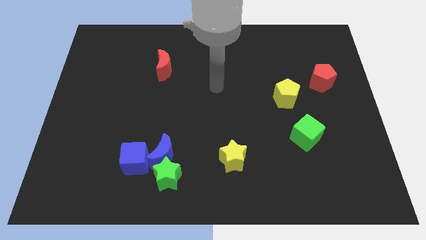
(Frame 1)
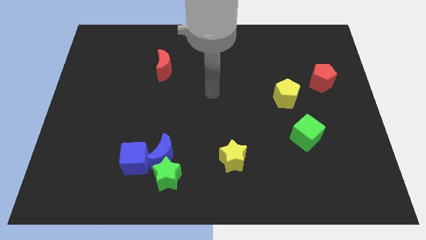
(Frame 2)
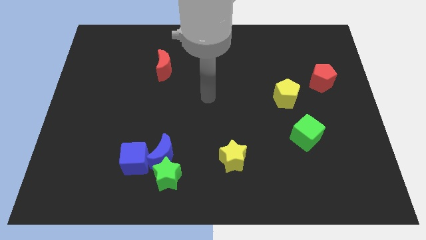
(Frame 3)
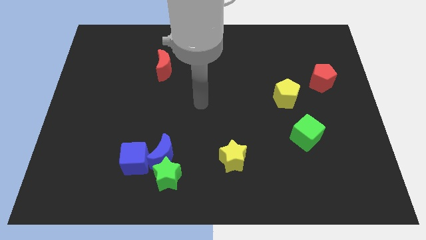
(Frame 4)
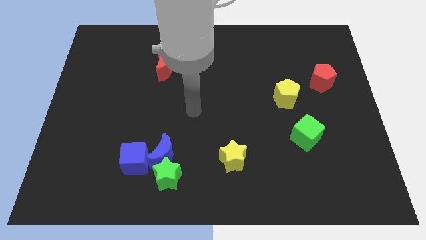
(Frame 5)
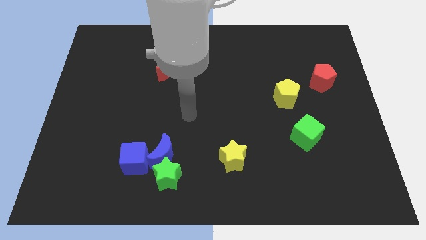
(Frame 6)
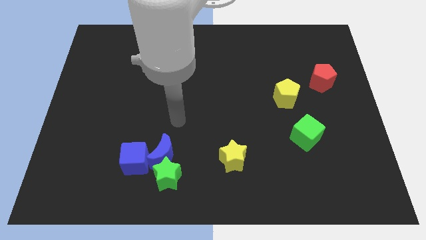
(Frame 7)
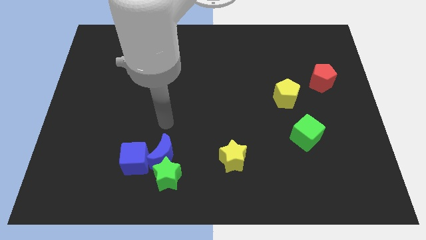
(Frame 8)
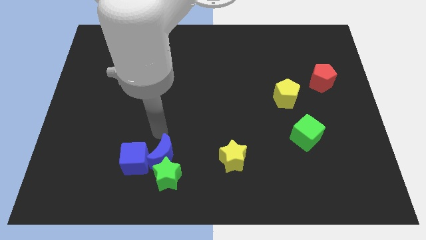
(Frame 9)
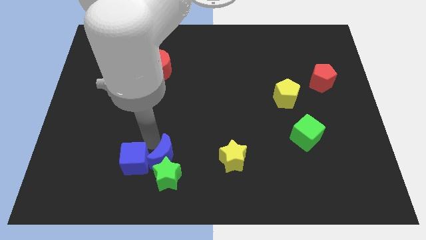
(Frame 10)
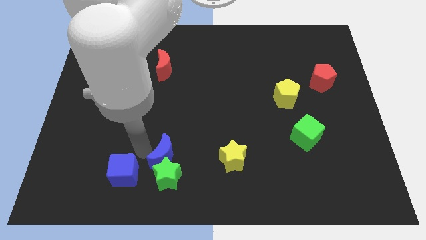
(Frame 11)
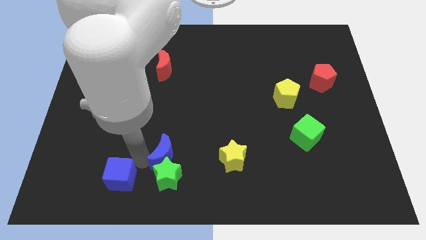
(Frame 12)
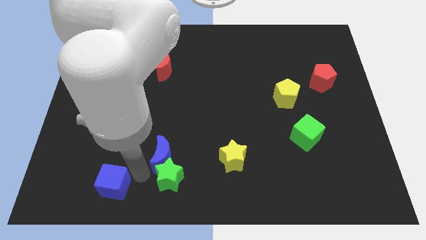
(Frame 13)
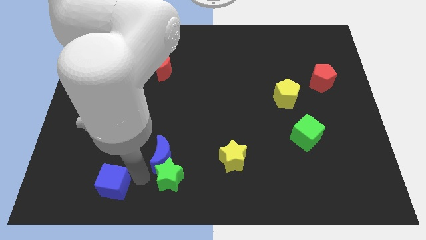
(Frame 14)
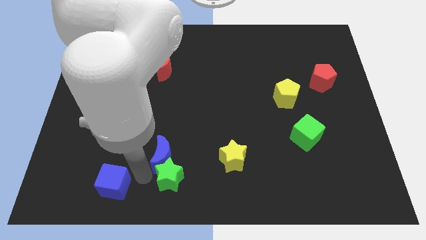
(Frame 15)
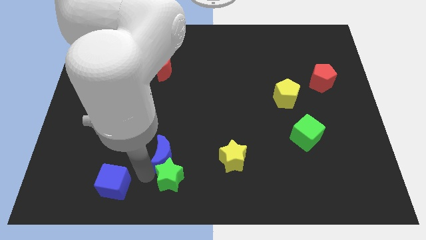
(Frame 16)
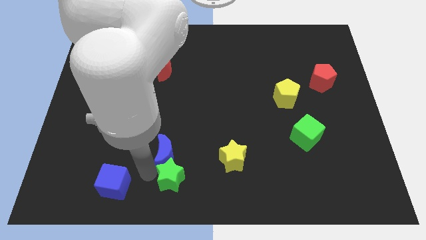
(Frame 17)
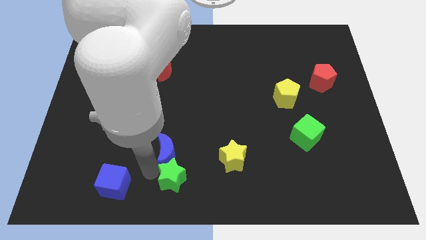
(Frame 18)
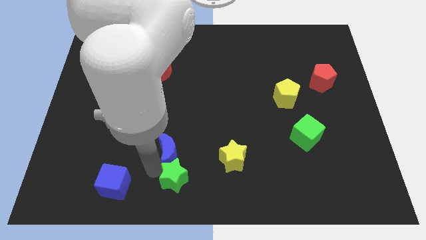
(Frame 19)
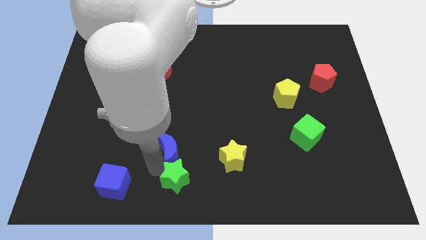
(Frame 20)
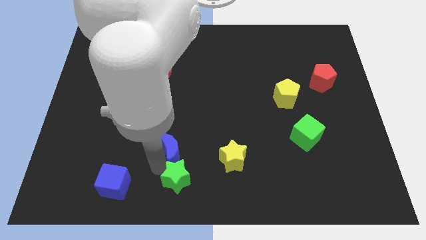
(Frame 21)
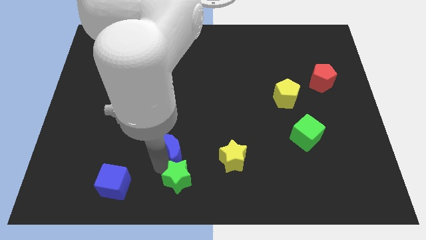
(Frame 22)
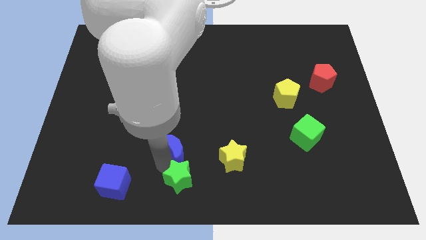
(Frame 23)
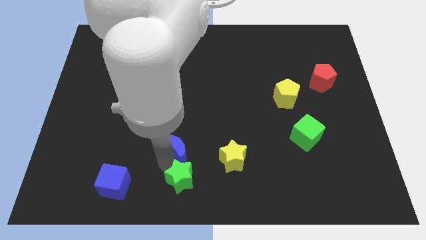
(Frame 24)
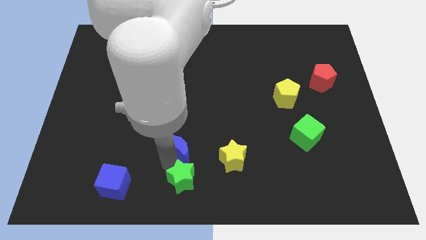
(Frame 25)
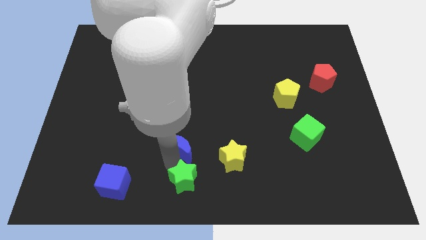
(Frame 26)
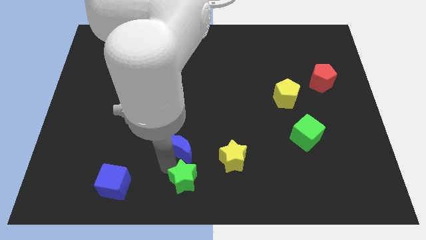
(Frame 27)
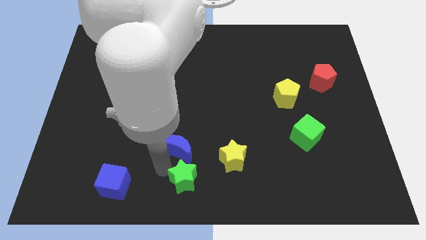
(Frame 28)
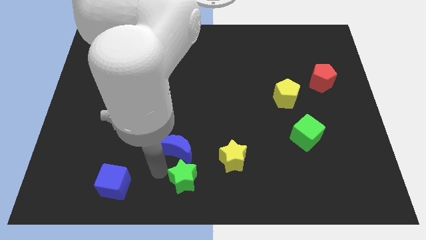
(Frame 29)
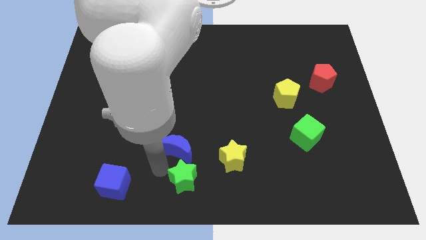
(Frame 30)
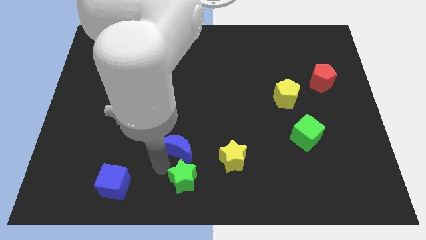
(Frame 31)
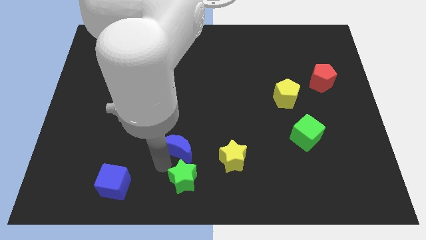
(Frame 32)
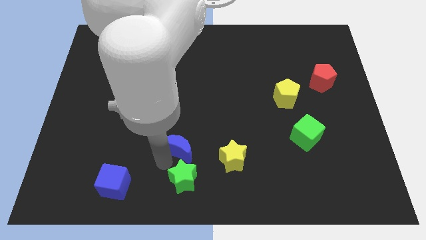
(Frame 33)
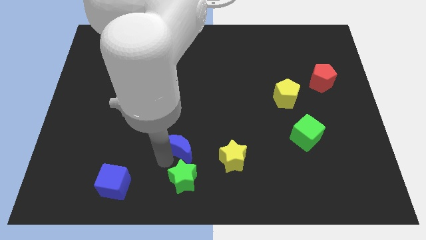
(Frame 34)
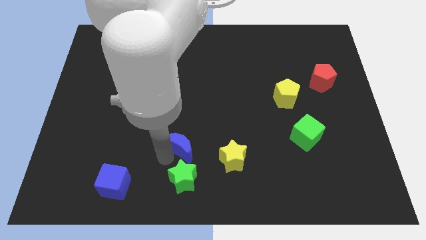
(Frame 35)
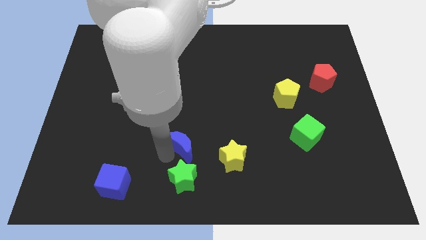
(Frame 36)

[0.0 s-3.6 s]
pull the blue moon apart from the green star and blue cube

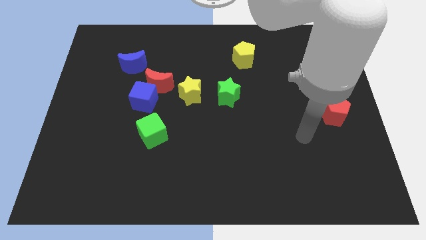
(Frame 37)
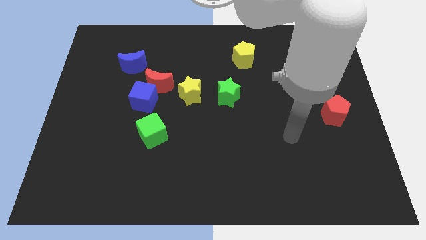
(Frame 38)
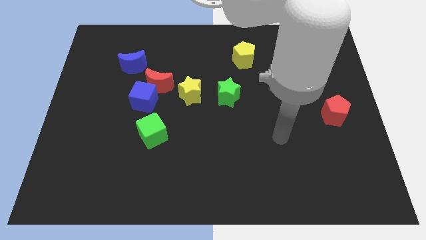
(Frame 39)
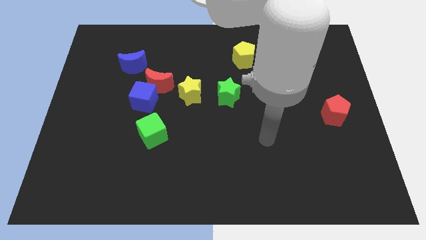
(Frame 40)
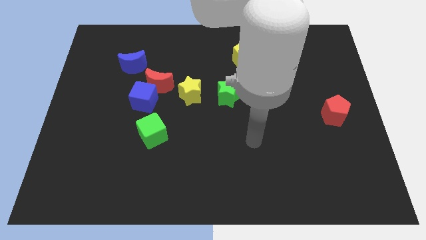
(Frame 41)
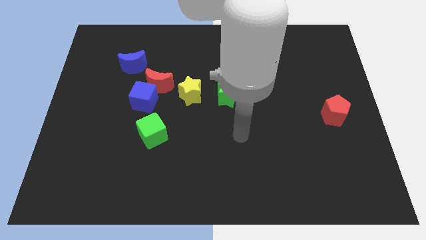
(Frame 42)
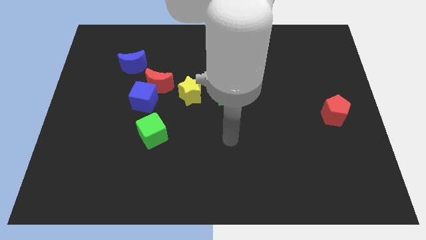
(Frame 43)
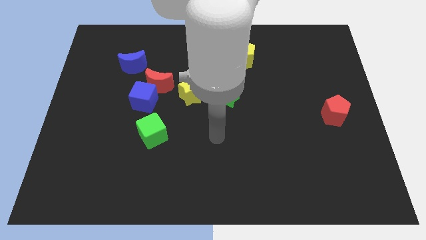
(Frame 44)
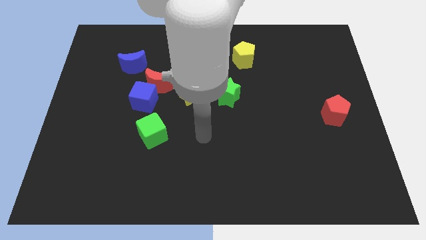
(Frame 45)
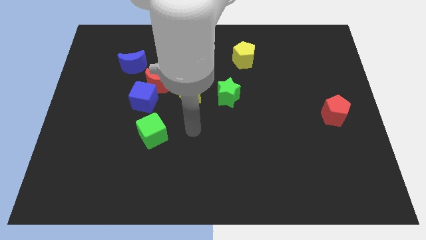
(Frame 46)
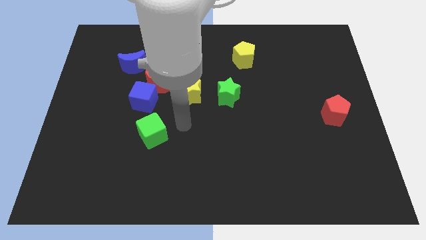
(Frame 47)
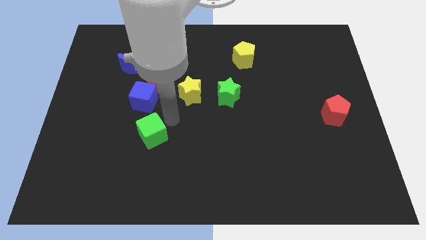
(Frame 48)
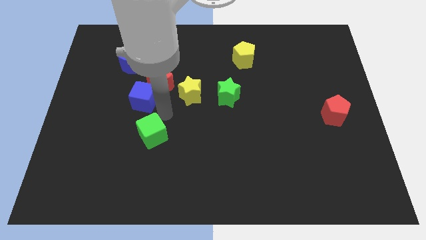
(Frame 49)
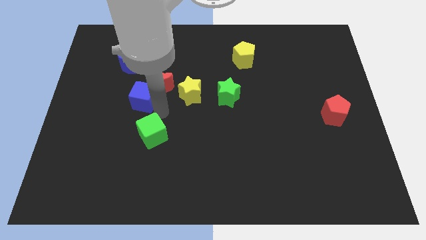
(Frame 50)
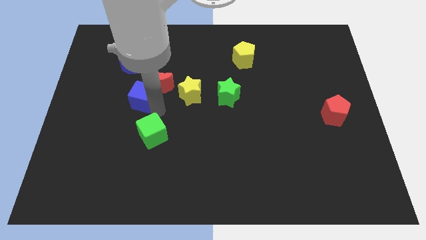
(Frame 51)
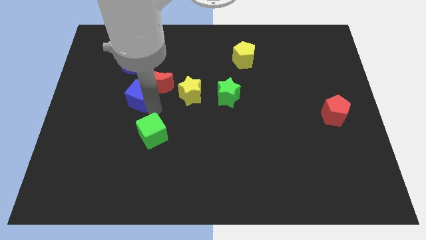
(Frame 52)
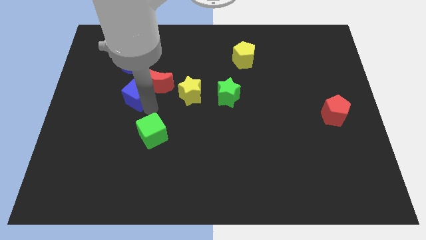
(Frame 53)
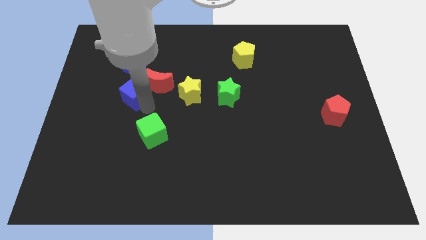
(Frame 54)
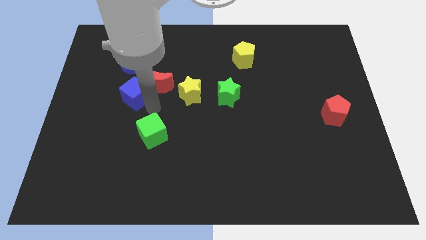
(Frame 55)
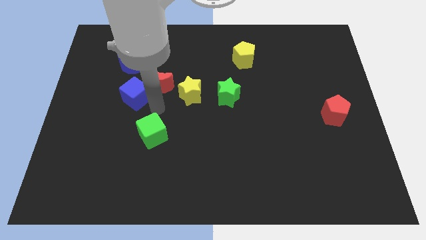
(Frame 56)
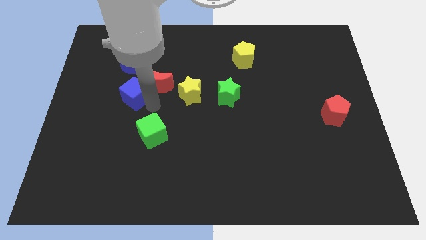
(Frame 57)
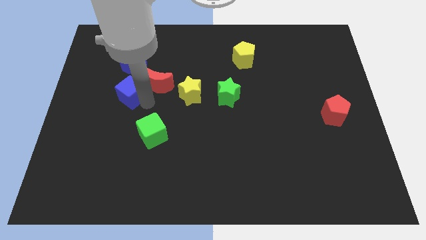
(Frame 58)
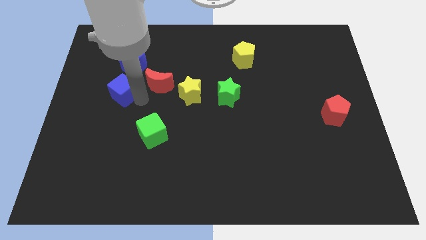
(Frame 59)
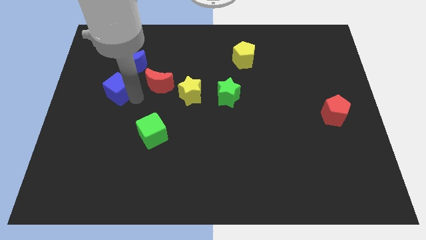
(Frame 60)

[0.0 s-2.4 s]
pull the blue cube apart from the red moon and green cube

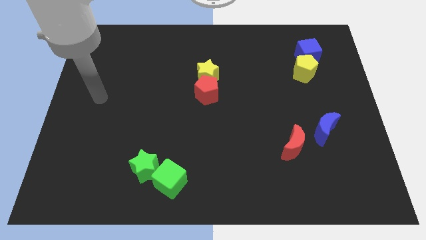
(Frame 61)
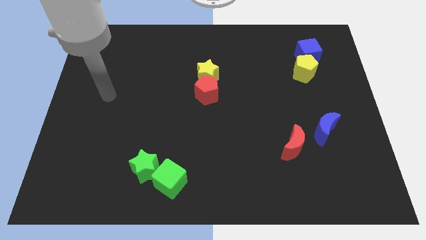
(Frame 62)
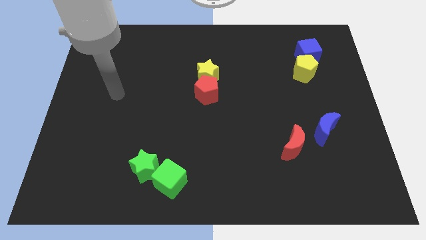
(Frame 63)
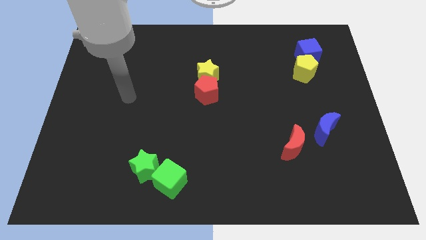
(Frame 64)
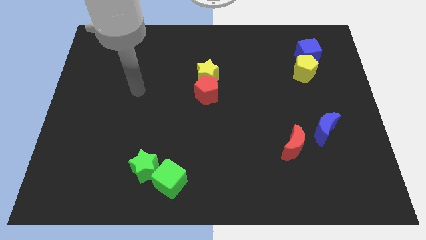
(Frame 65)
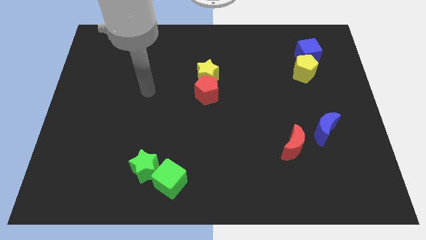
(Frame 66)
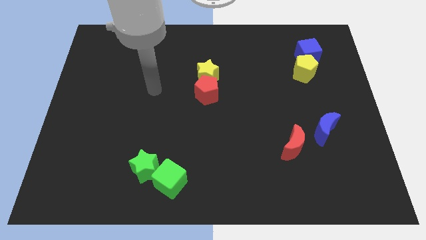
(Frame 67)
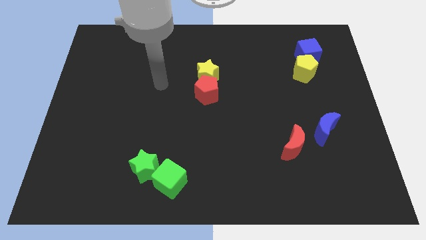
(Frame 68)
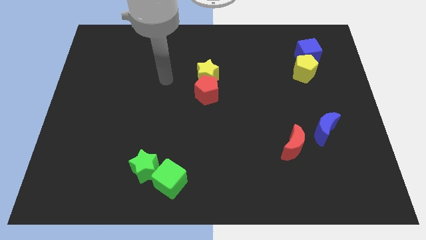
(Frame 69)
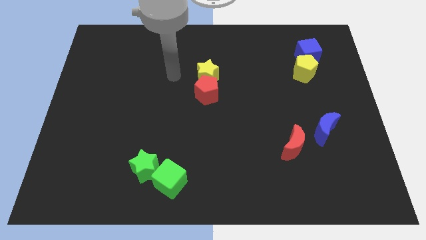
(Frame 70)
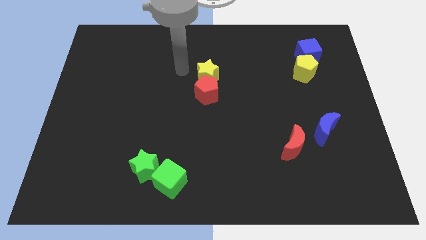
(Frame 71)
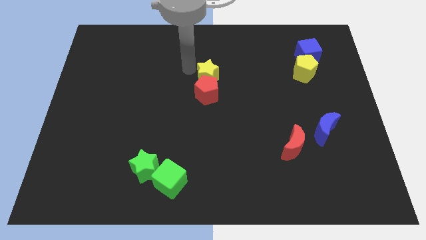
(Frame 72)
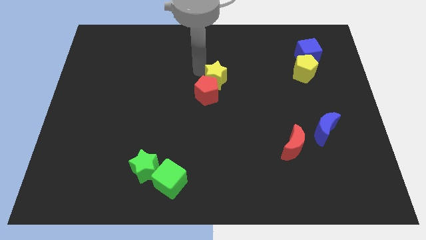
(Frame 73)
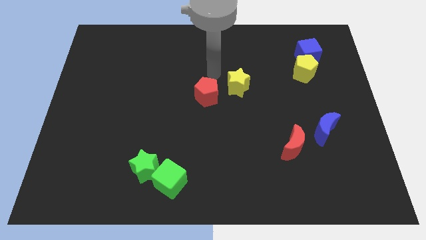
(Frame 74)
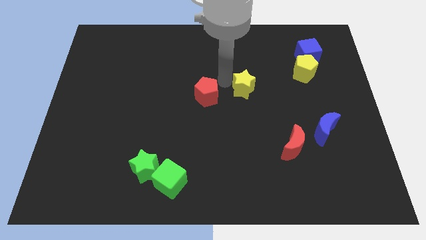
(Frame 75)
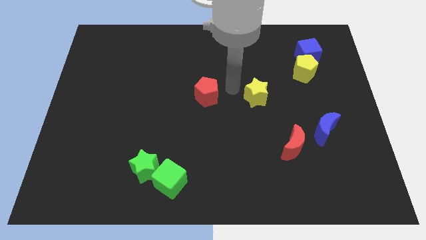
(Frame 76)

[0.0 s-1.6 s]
pull the red pentagon apart from the yellow star

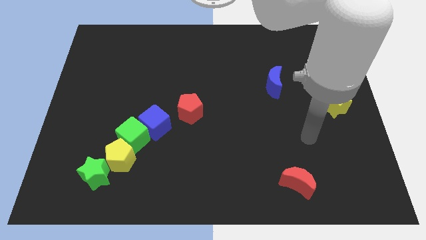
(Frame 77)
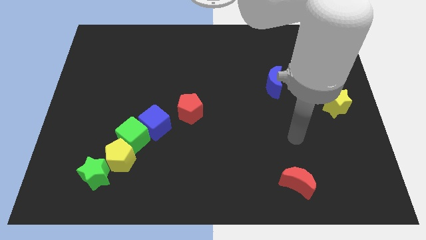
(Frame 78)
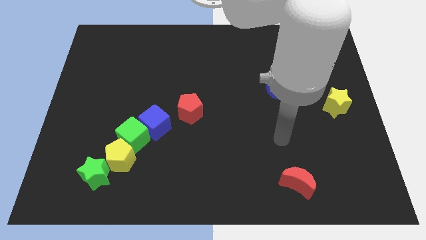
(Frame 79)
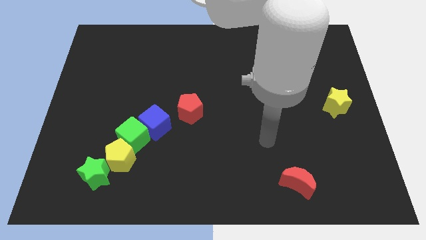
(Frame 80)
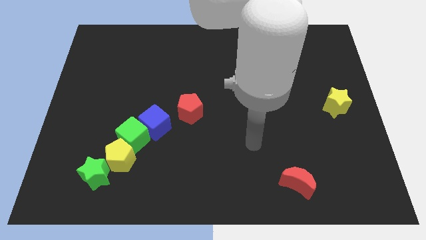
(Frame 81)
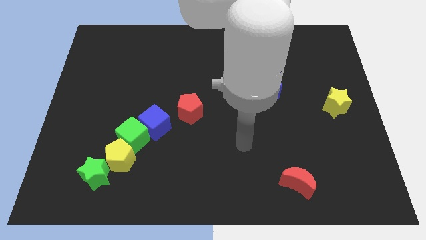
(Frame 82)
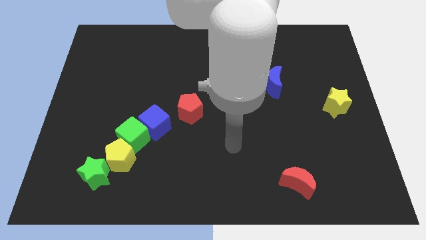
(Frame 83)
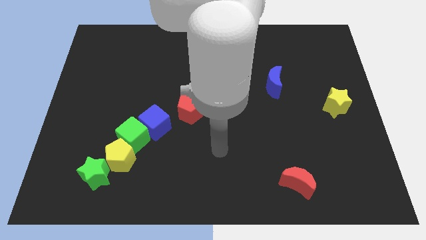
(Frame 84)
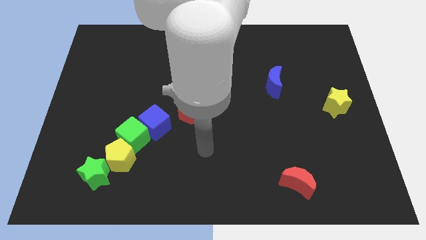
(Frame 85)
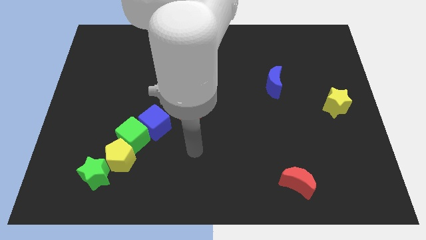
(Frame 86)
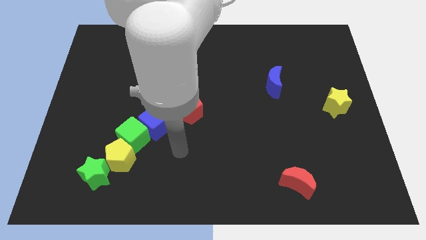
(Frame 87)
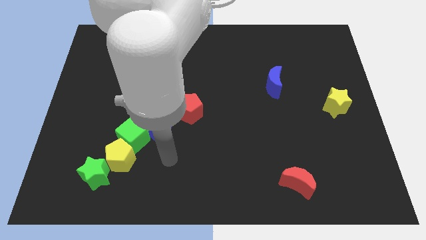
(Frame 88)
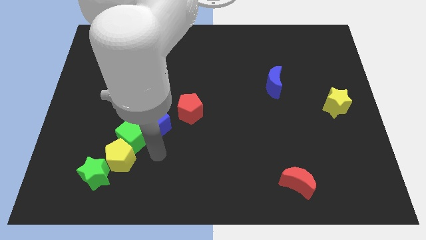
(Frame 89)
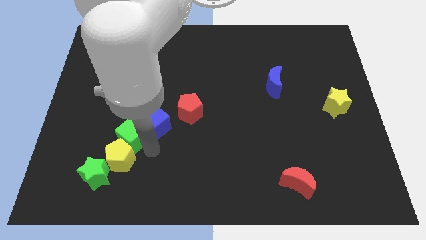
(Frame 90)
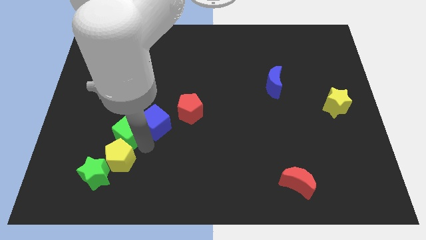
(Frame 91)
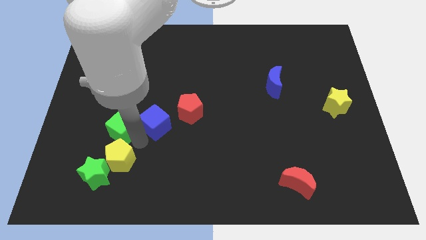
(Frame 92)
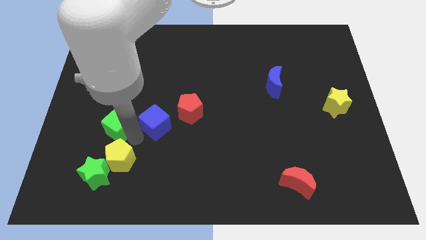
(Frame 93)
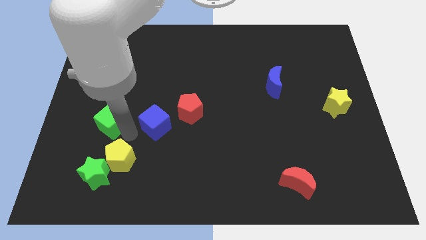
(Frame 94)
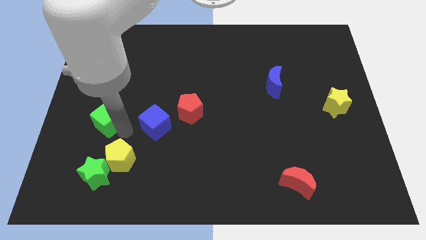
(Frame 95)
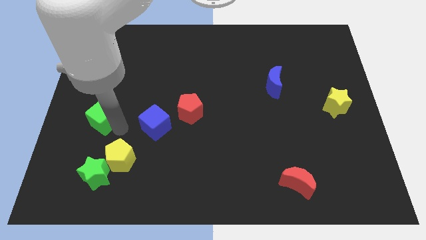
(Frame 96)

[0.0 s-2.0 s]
separate the green cube from the blue cube and yellow pentagon

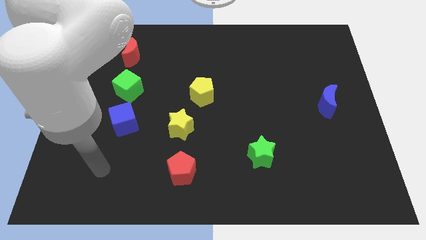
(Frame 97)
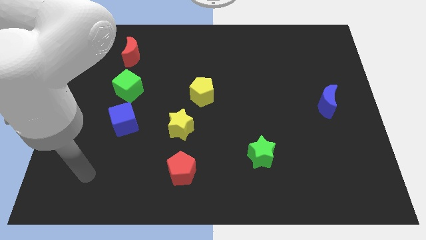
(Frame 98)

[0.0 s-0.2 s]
move the blue cube away from the green cube
